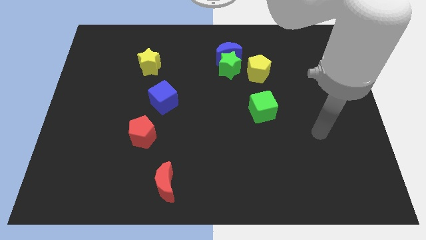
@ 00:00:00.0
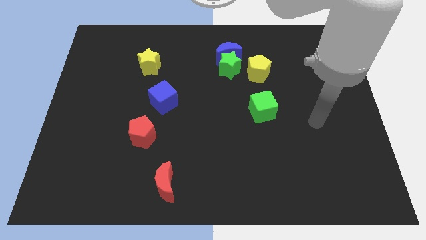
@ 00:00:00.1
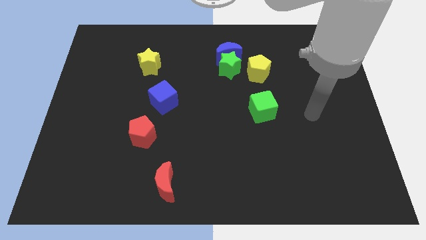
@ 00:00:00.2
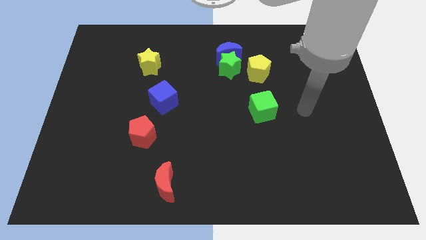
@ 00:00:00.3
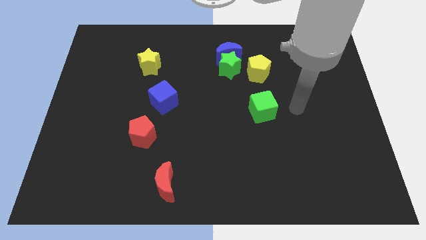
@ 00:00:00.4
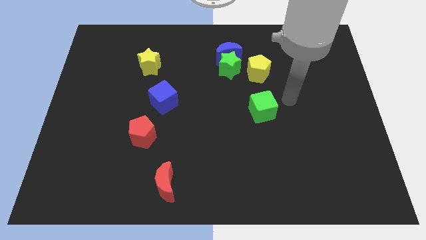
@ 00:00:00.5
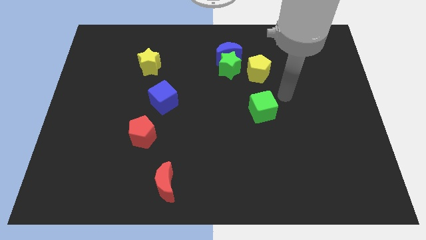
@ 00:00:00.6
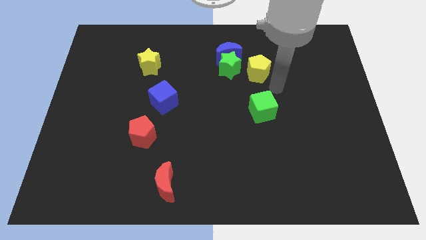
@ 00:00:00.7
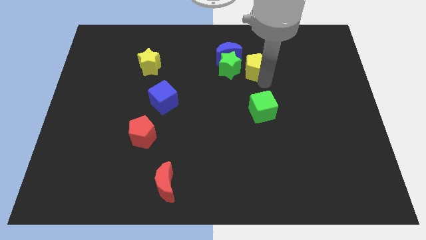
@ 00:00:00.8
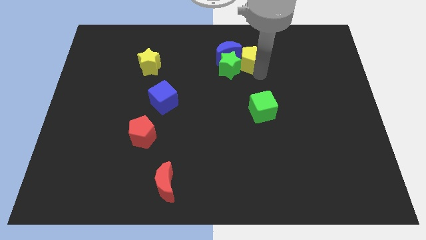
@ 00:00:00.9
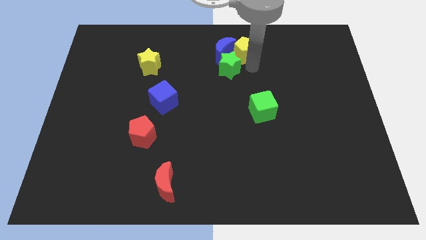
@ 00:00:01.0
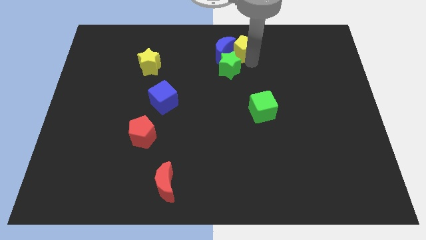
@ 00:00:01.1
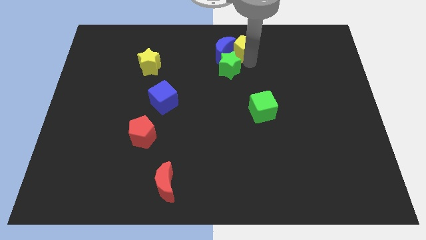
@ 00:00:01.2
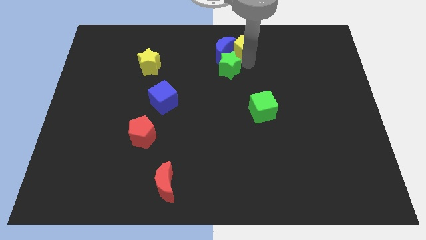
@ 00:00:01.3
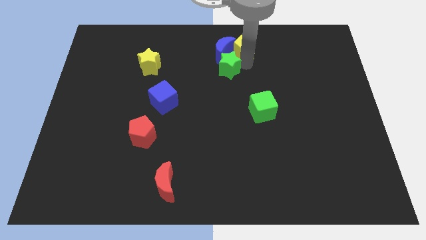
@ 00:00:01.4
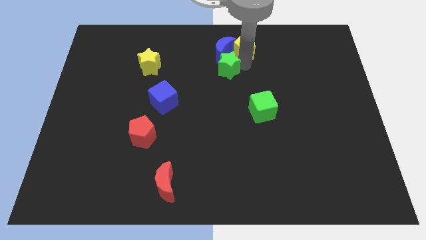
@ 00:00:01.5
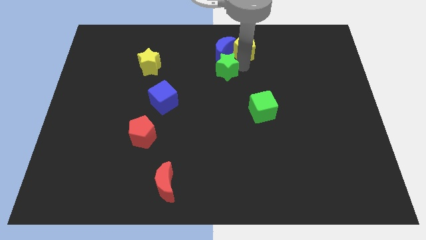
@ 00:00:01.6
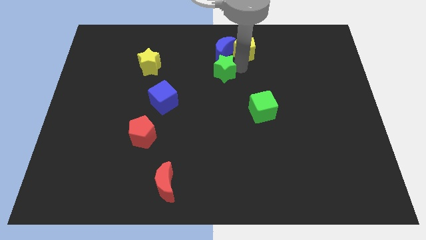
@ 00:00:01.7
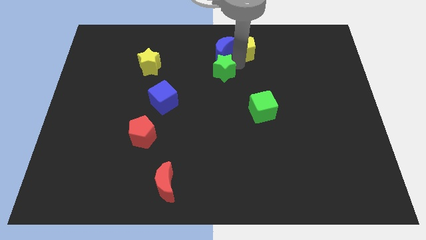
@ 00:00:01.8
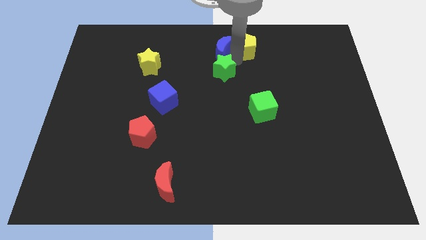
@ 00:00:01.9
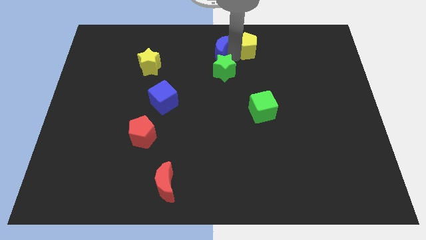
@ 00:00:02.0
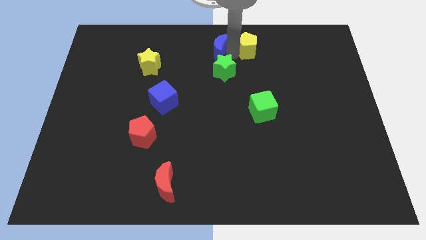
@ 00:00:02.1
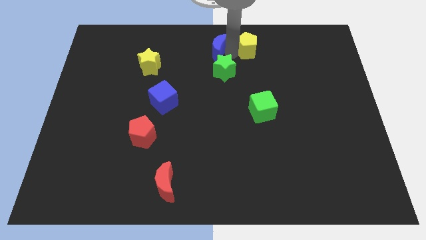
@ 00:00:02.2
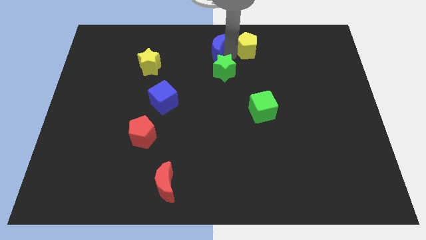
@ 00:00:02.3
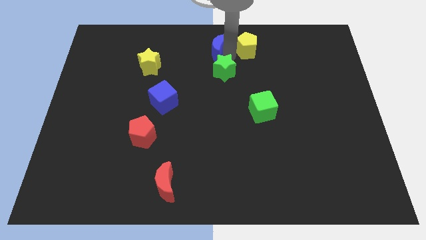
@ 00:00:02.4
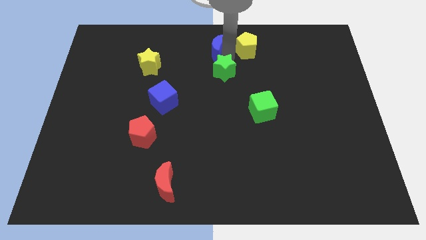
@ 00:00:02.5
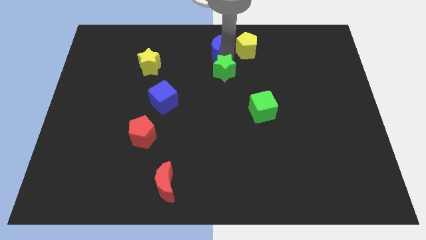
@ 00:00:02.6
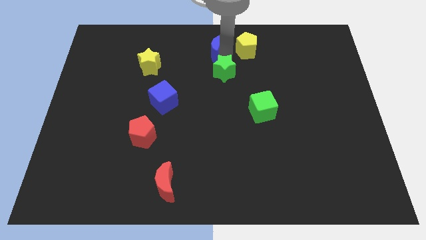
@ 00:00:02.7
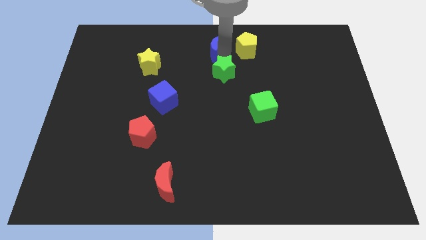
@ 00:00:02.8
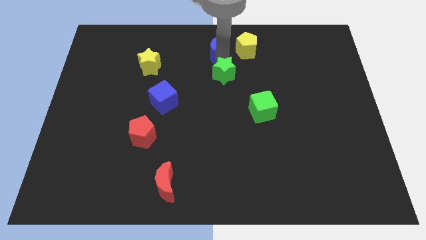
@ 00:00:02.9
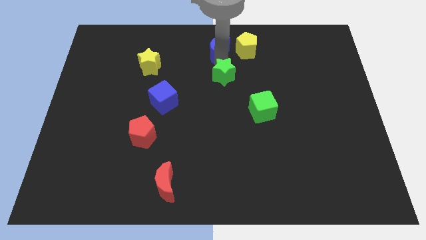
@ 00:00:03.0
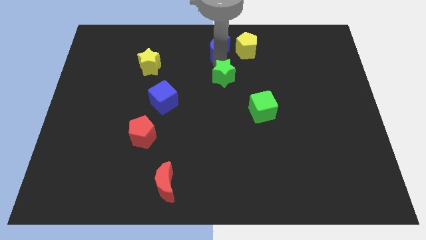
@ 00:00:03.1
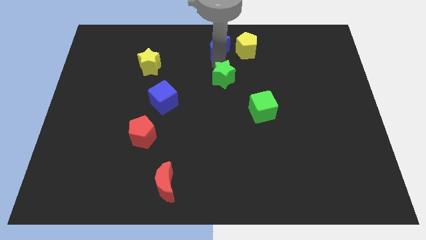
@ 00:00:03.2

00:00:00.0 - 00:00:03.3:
pull the green star apart from the blue moon and yellow pentagon

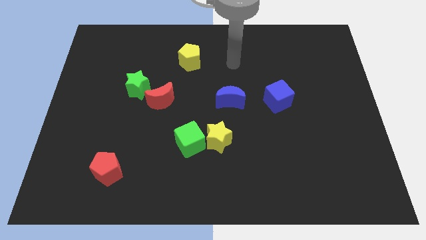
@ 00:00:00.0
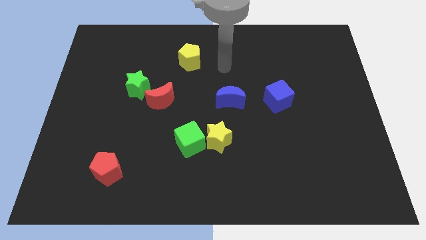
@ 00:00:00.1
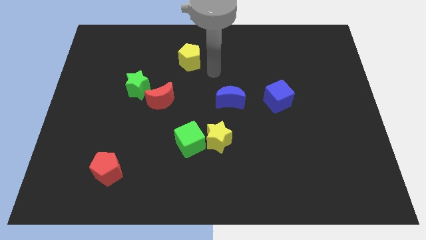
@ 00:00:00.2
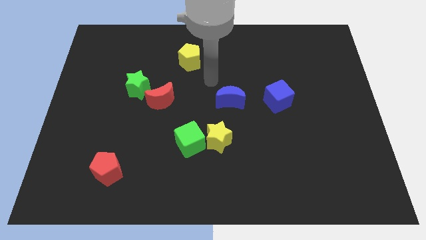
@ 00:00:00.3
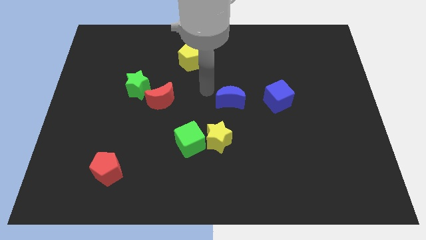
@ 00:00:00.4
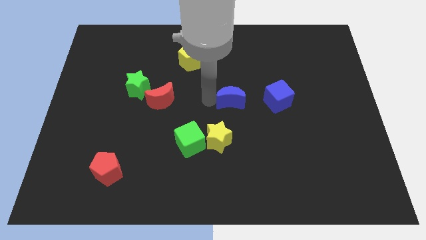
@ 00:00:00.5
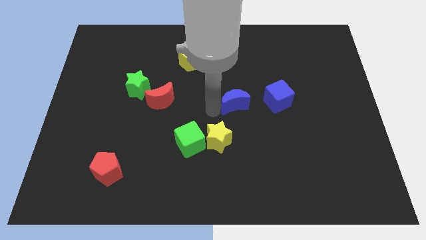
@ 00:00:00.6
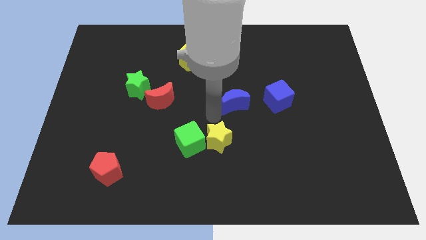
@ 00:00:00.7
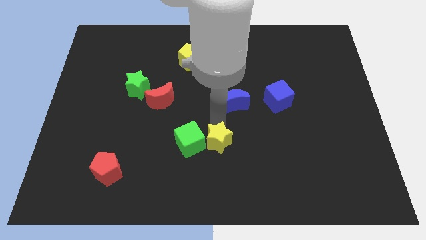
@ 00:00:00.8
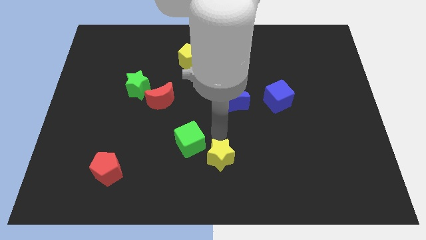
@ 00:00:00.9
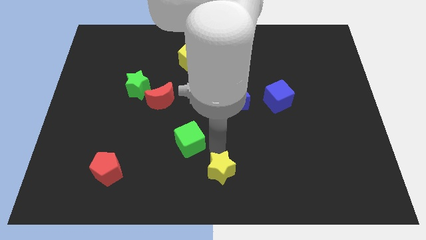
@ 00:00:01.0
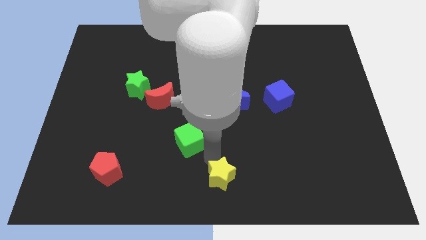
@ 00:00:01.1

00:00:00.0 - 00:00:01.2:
pull the green cube apart from the yellow star

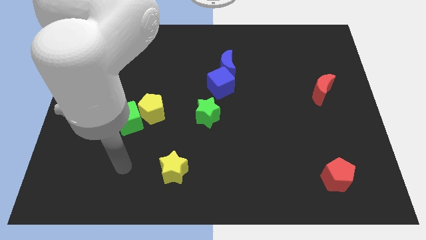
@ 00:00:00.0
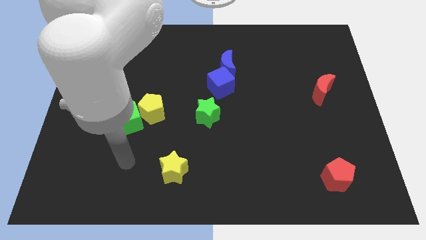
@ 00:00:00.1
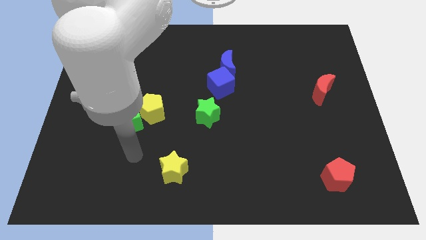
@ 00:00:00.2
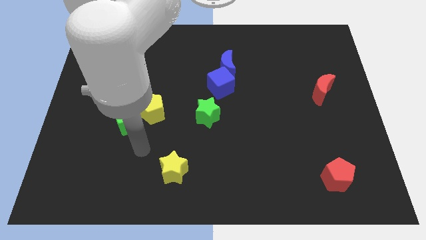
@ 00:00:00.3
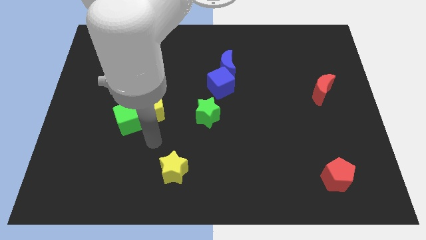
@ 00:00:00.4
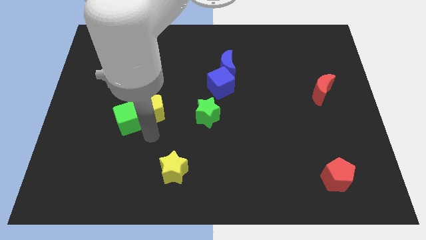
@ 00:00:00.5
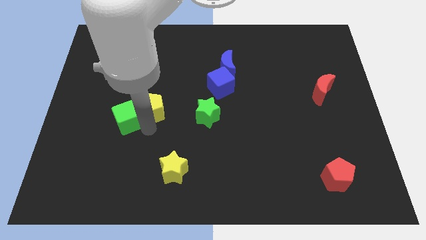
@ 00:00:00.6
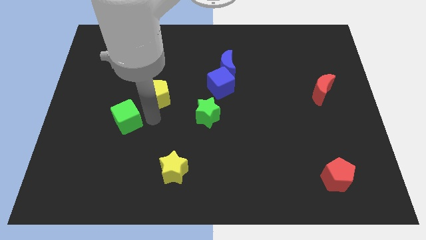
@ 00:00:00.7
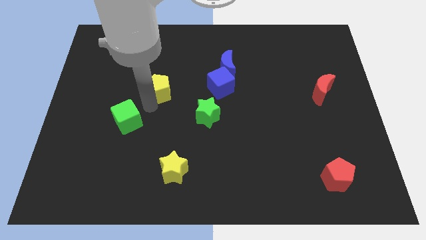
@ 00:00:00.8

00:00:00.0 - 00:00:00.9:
separate the green cube from the yellow pentagon

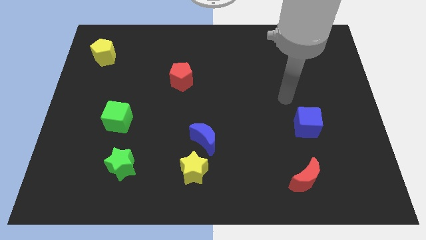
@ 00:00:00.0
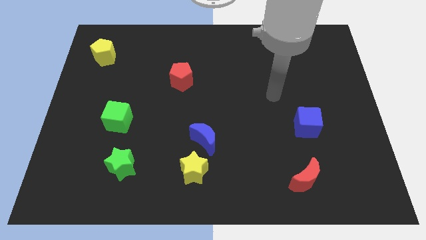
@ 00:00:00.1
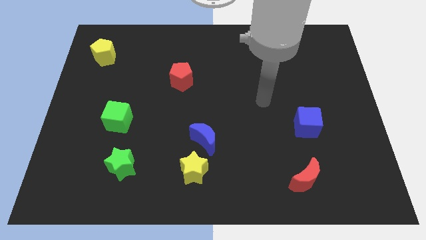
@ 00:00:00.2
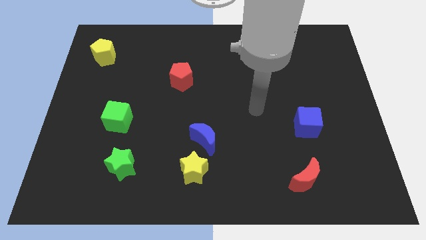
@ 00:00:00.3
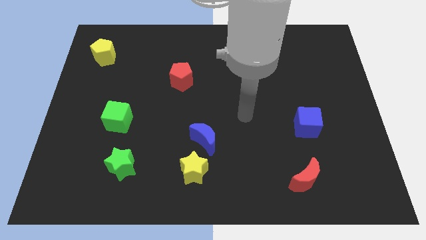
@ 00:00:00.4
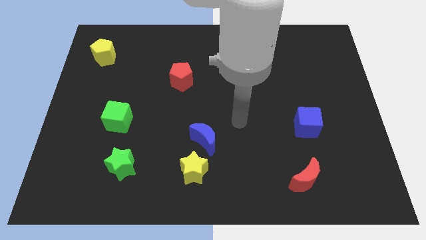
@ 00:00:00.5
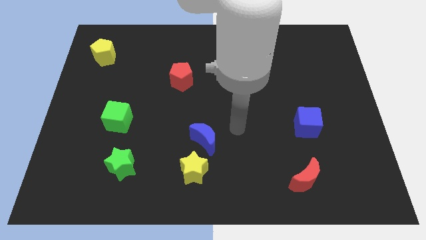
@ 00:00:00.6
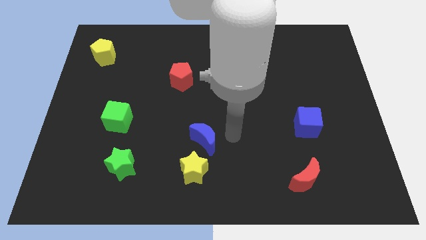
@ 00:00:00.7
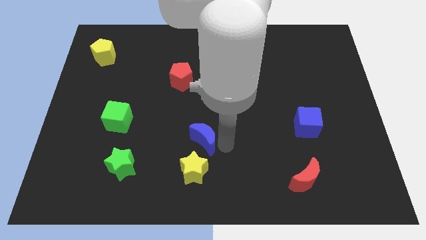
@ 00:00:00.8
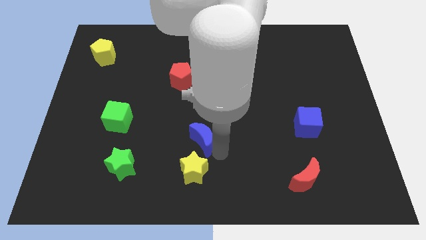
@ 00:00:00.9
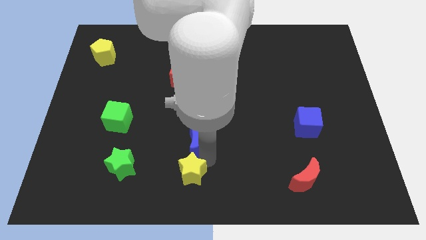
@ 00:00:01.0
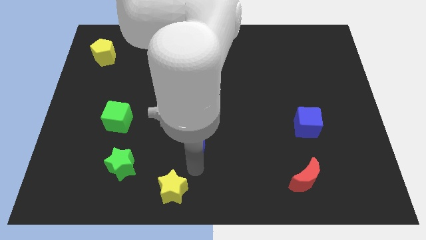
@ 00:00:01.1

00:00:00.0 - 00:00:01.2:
move the blue moon away from the yellow star

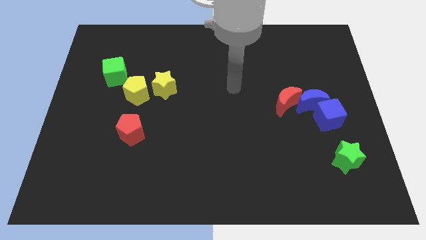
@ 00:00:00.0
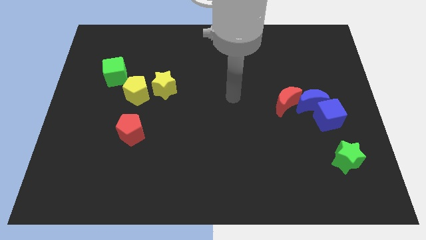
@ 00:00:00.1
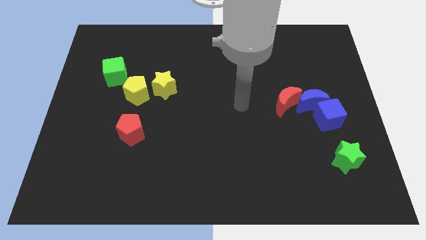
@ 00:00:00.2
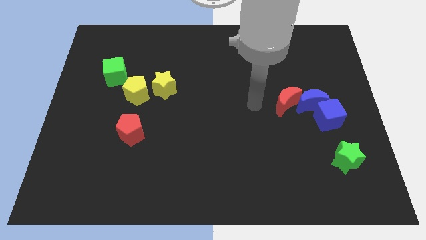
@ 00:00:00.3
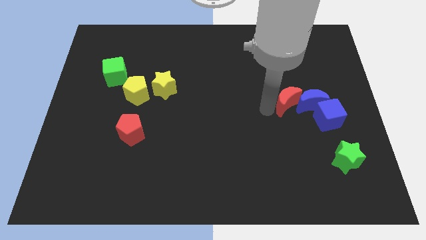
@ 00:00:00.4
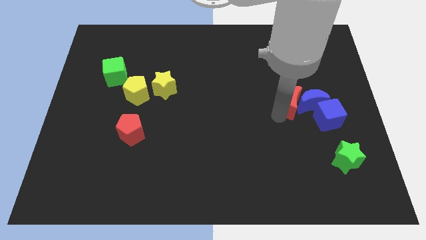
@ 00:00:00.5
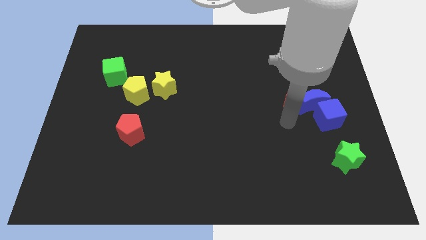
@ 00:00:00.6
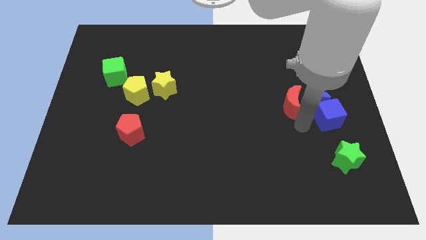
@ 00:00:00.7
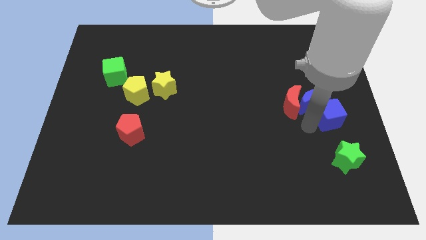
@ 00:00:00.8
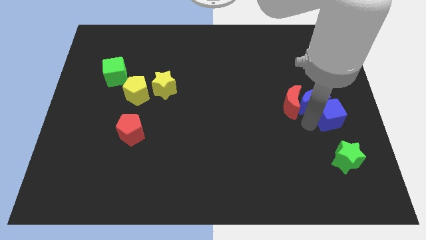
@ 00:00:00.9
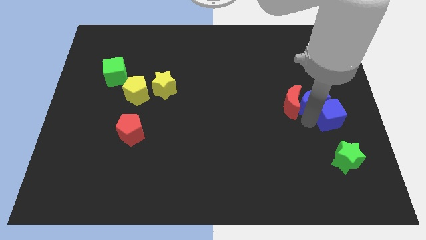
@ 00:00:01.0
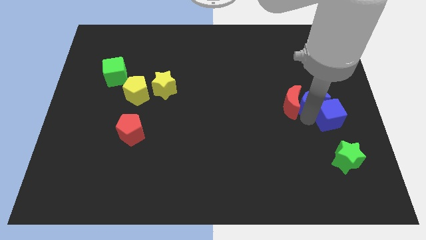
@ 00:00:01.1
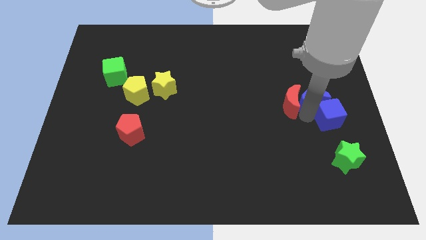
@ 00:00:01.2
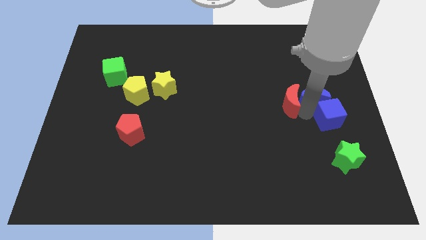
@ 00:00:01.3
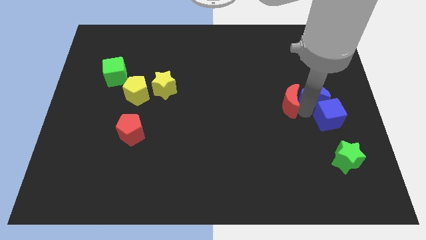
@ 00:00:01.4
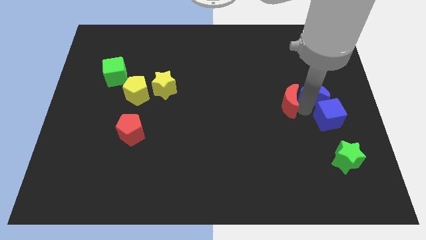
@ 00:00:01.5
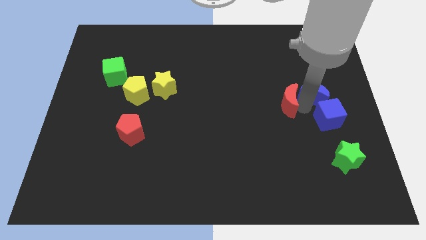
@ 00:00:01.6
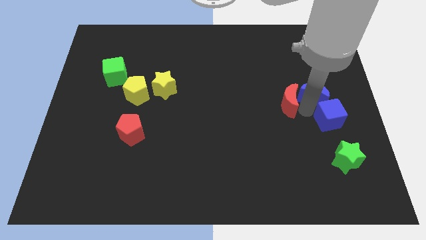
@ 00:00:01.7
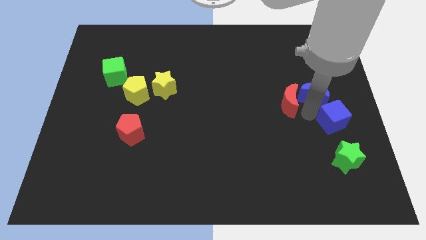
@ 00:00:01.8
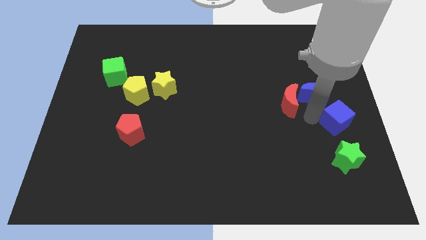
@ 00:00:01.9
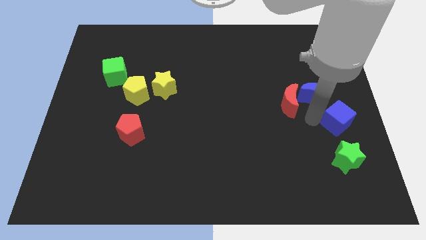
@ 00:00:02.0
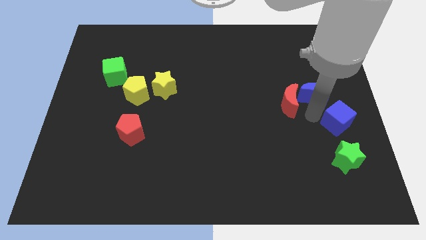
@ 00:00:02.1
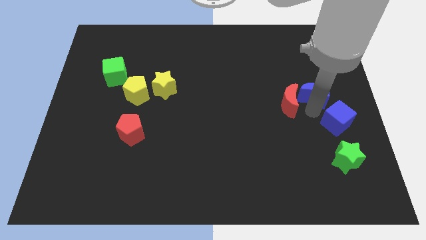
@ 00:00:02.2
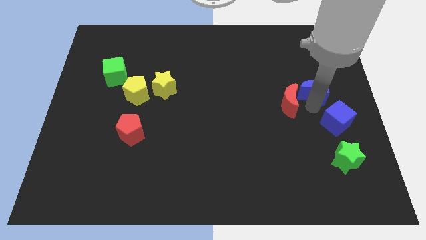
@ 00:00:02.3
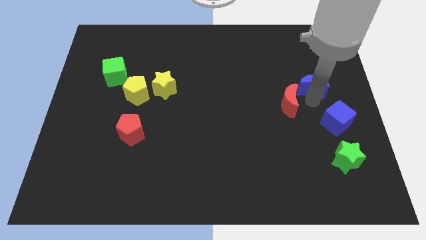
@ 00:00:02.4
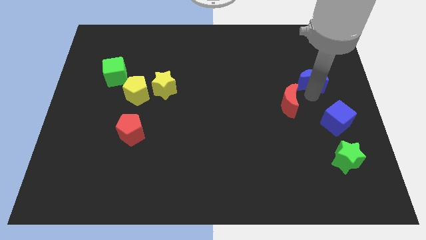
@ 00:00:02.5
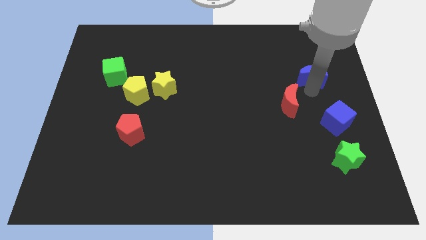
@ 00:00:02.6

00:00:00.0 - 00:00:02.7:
move the blue moon away from the blue cube and red moon
